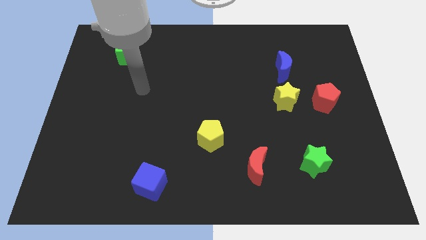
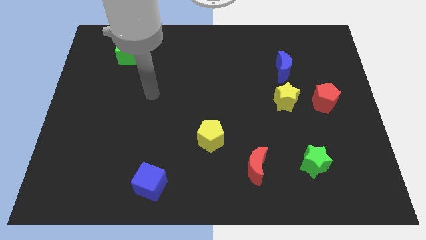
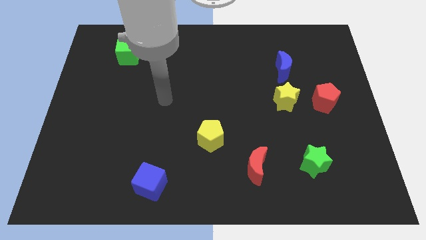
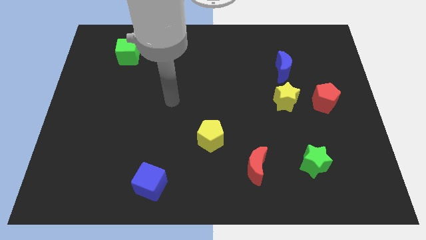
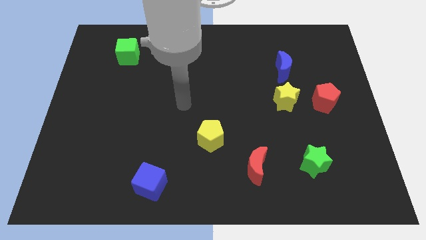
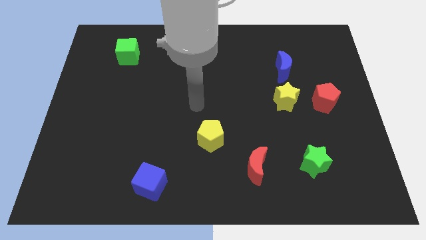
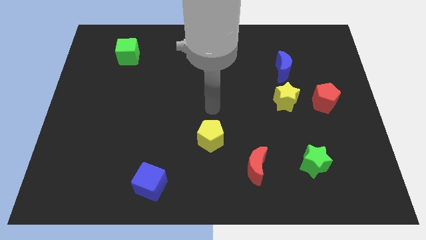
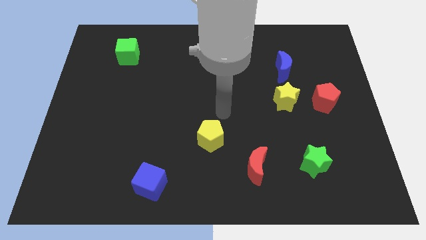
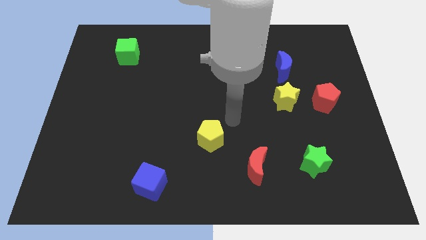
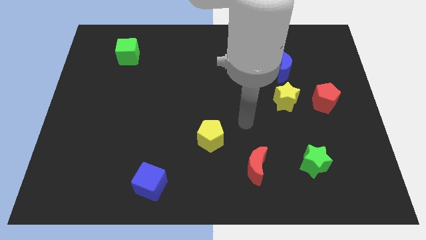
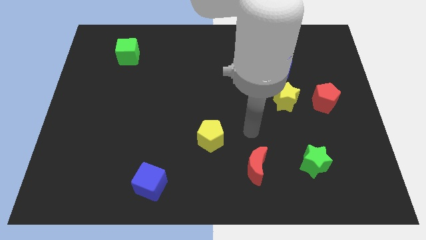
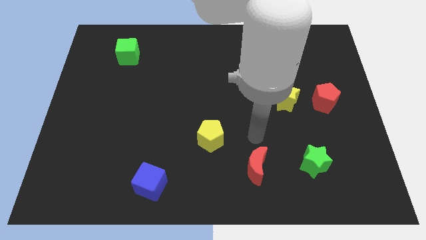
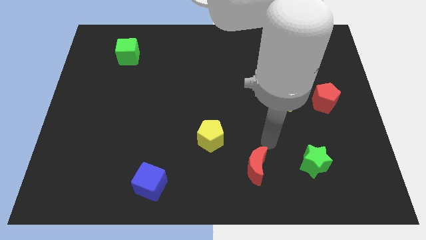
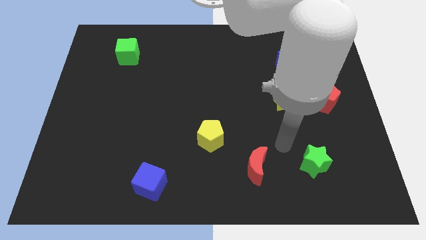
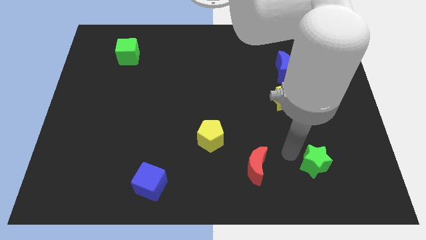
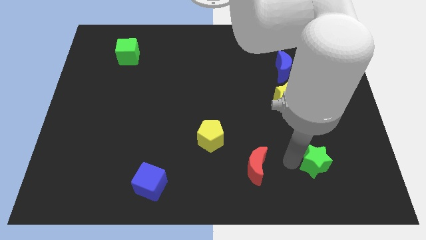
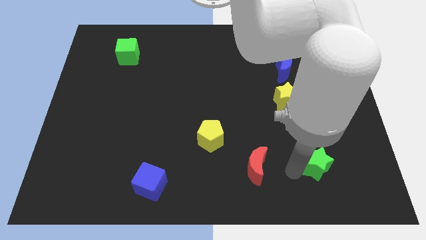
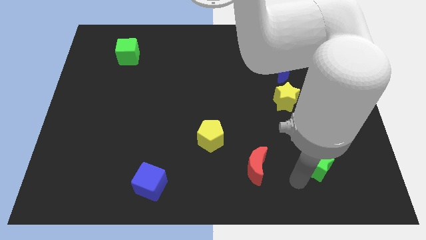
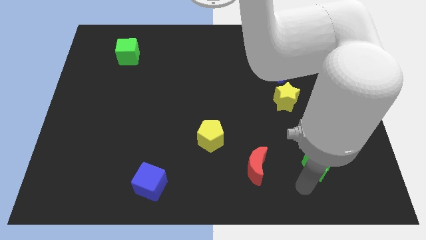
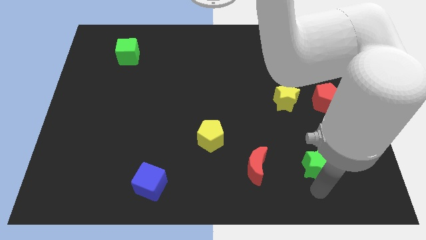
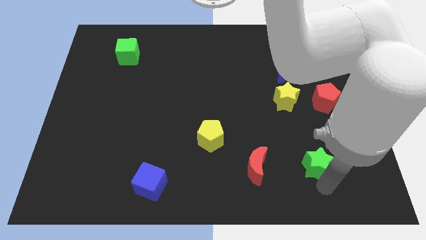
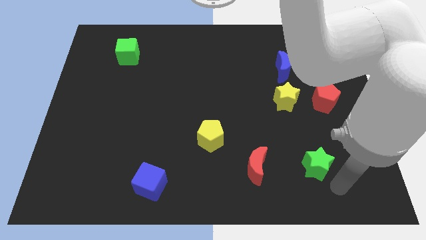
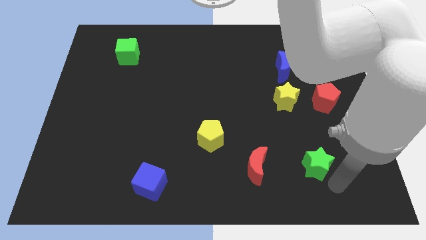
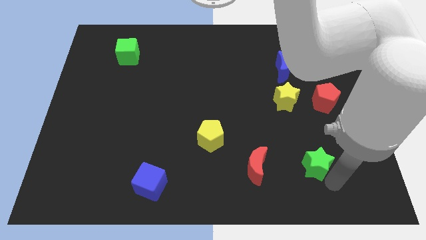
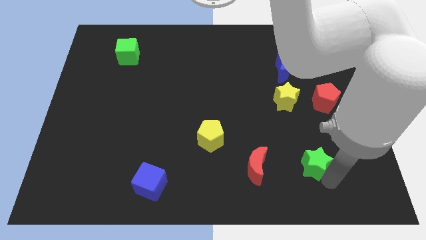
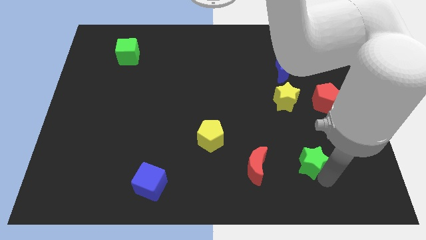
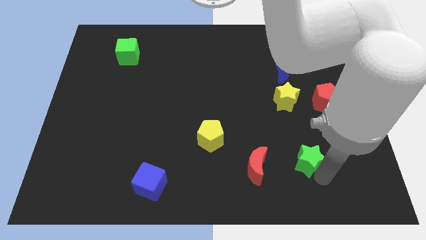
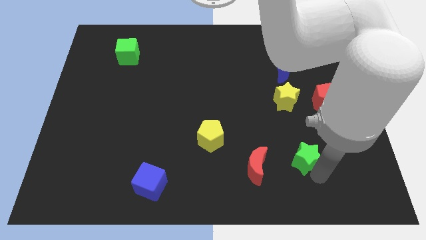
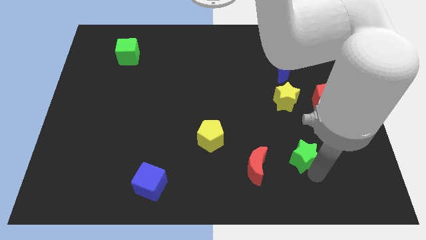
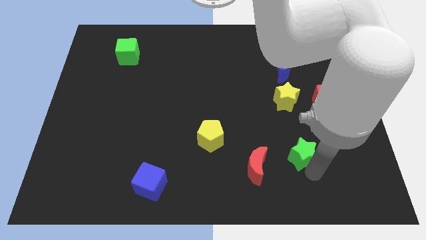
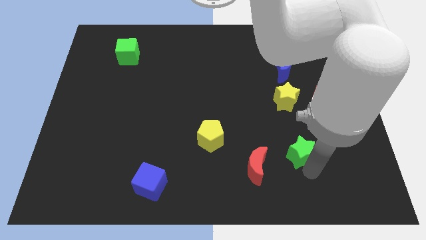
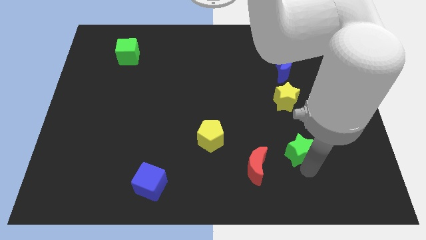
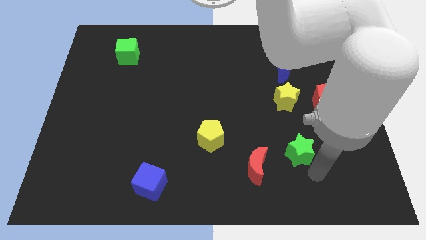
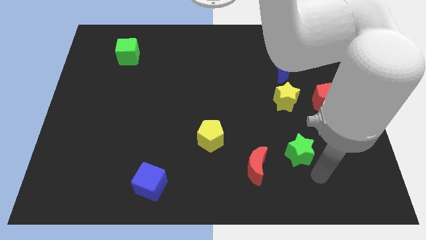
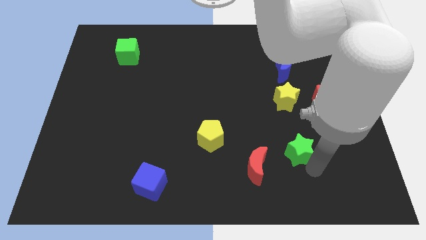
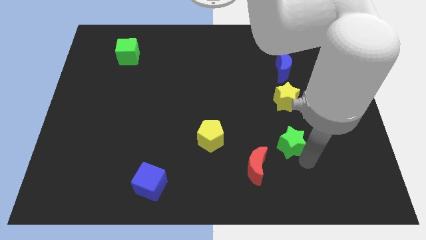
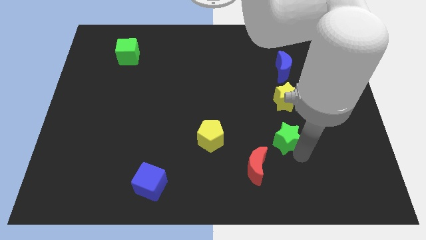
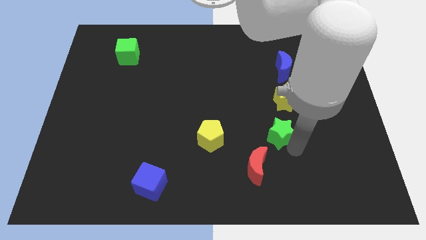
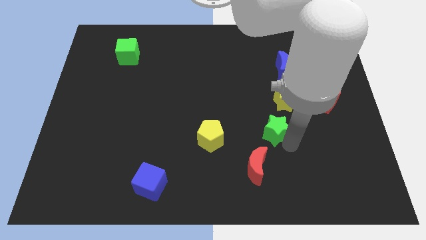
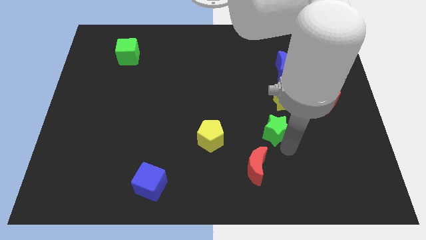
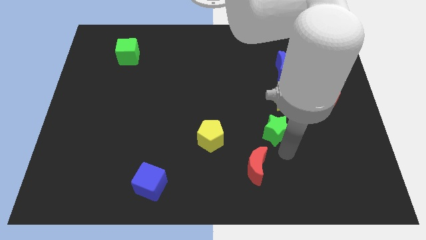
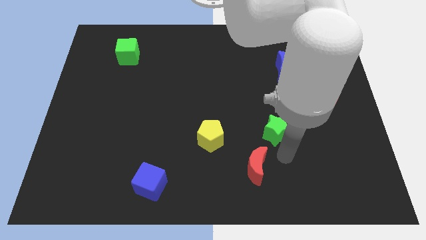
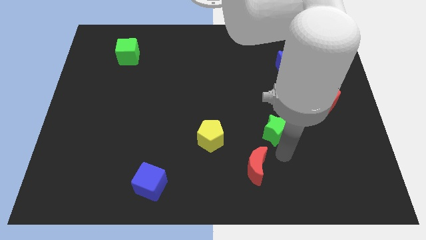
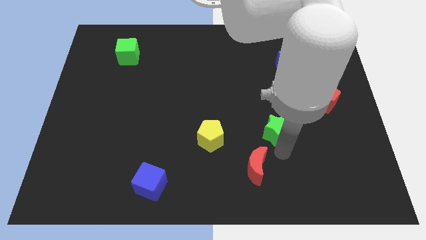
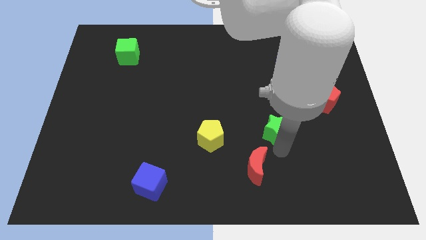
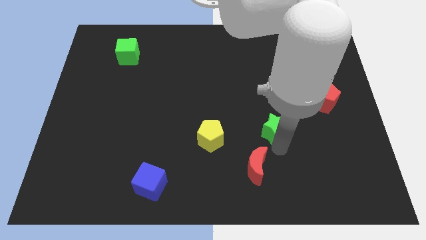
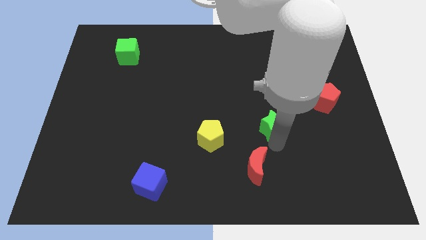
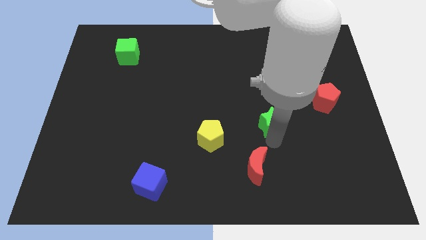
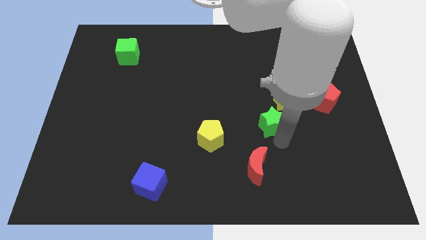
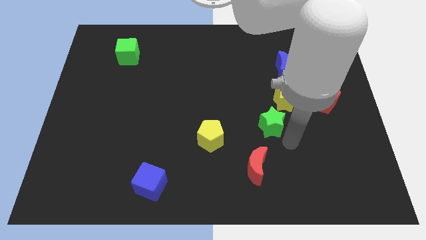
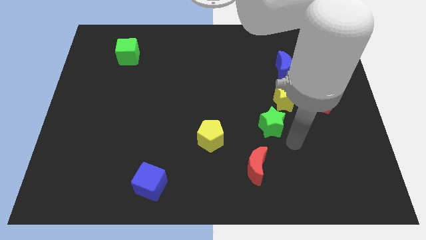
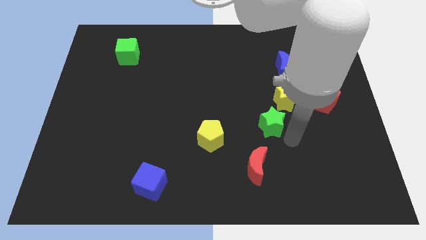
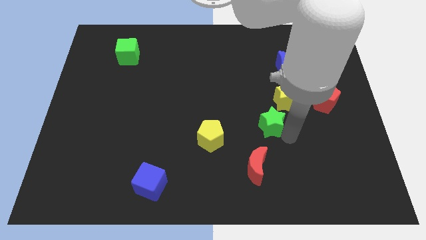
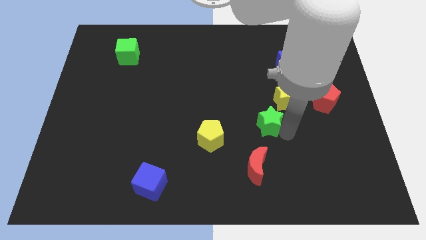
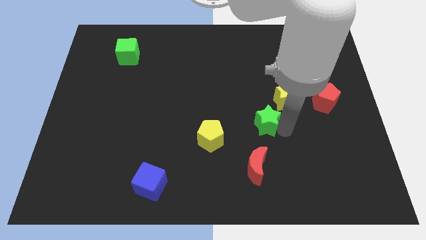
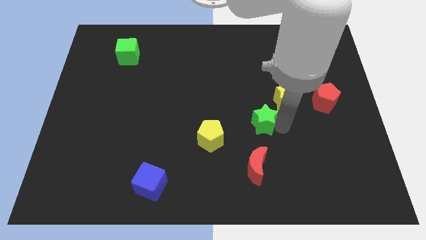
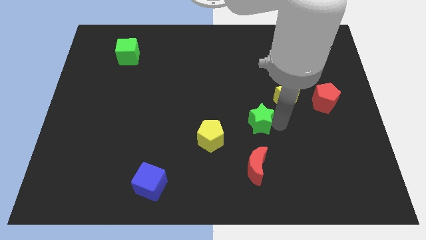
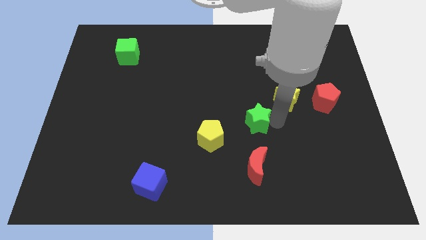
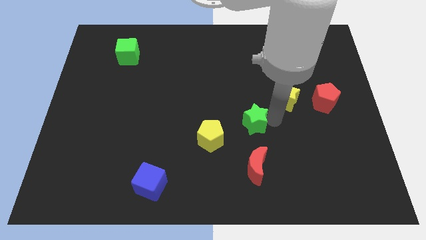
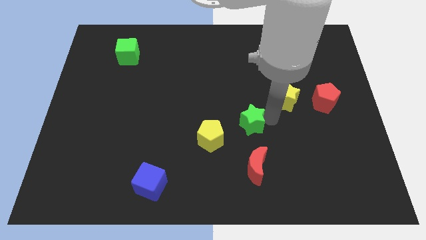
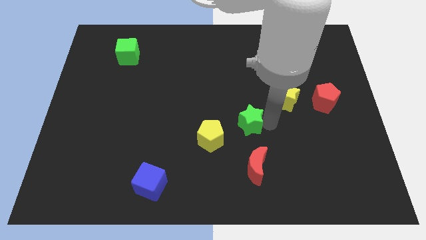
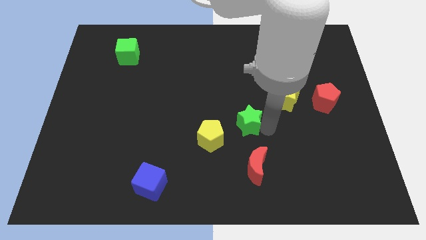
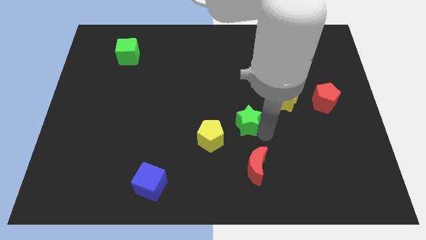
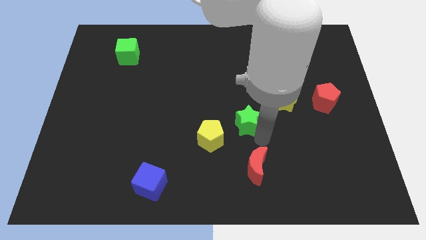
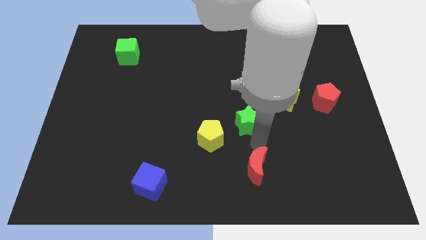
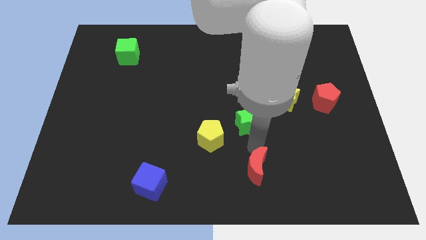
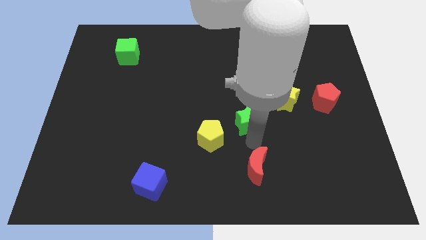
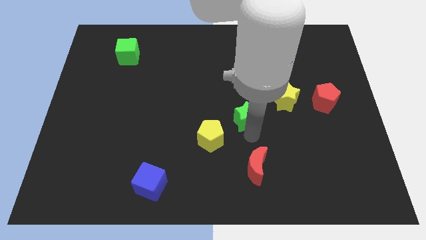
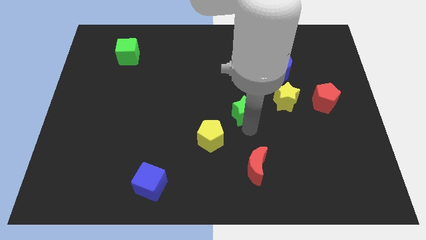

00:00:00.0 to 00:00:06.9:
put the green star to the left of the yellow star

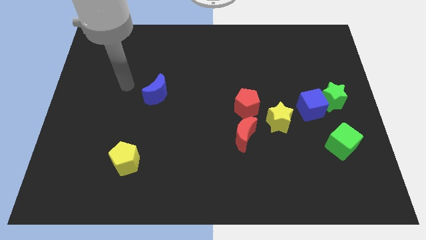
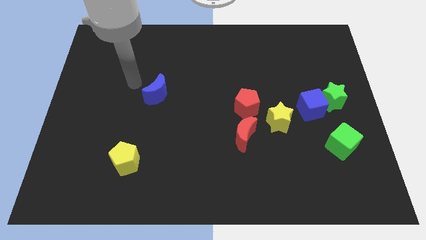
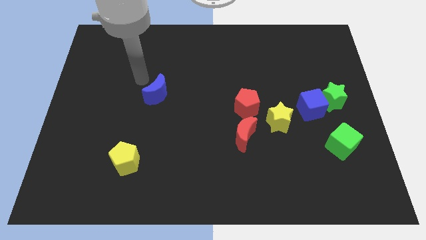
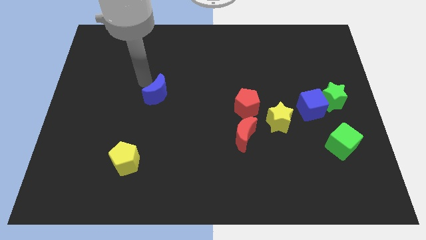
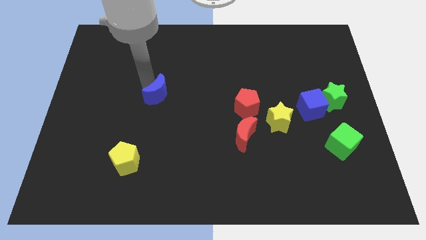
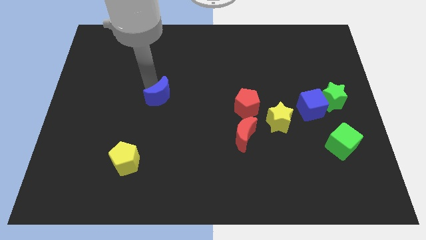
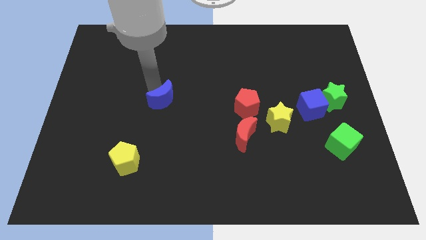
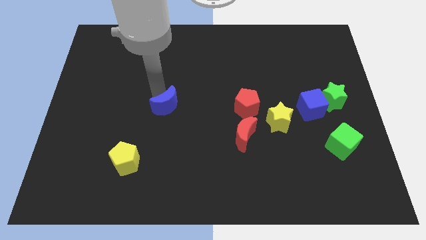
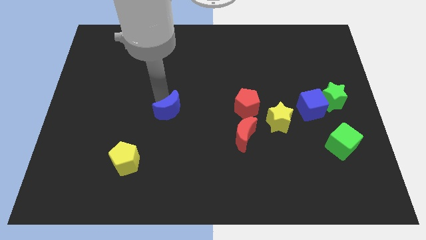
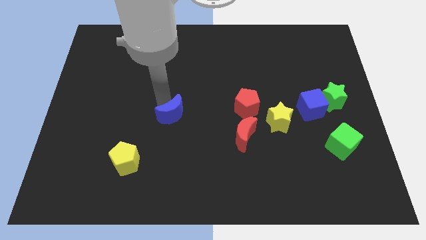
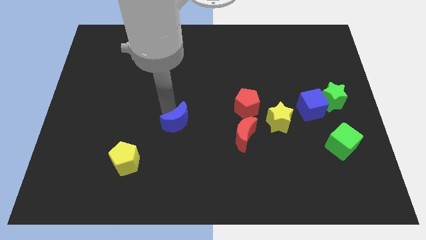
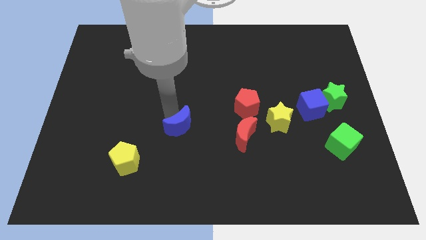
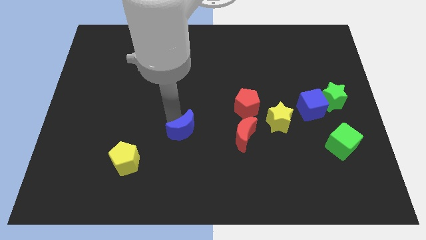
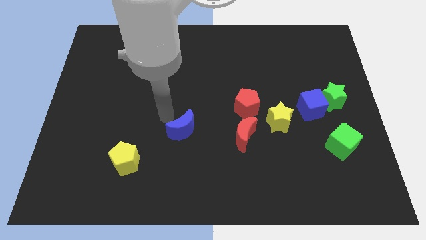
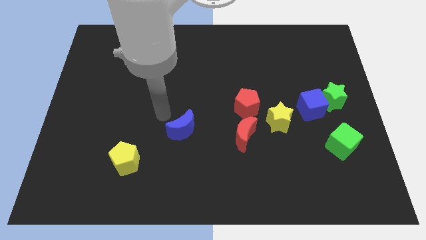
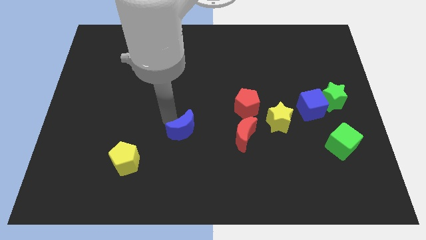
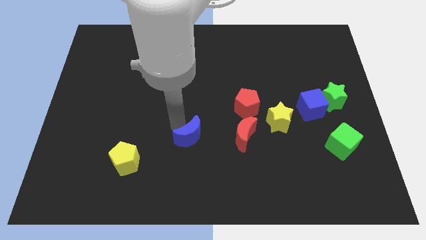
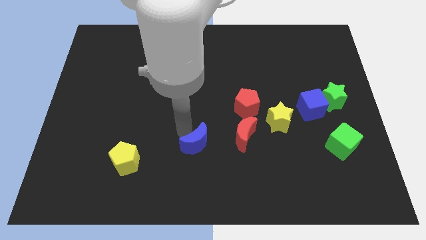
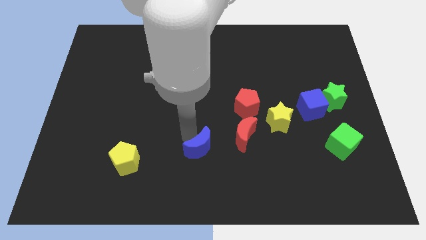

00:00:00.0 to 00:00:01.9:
move the blue moon diagonally down and to the left of the red moon
